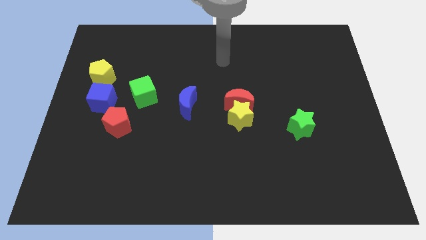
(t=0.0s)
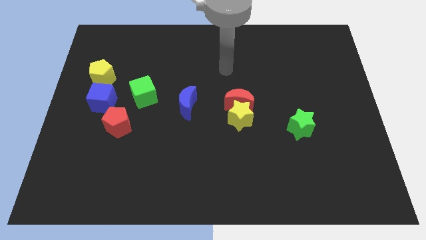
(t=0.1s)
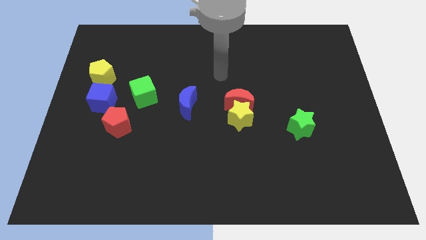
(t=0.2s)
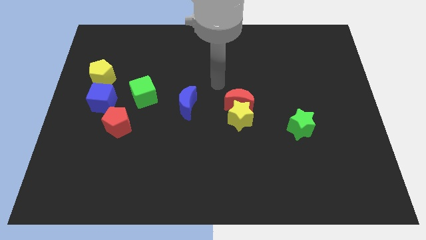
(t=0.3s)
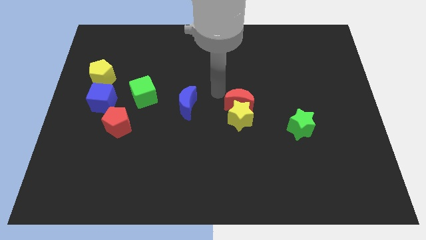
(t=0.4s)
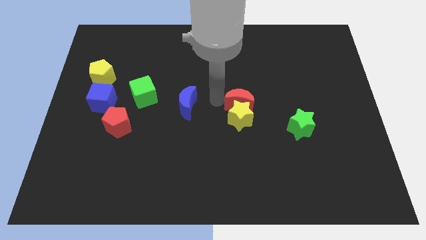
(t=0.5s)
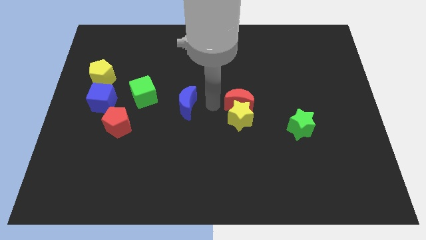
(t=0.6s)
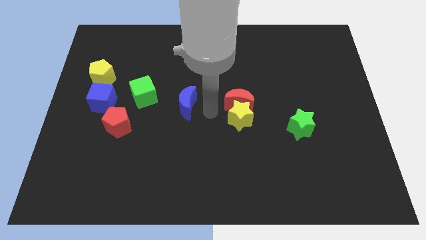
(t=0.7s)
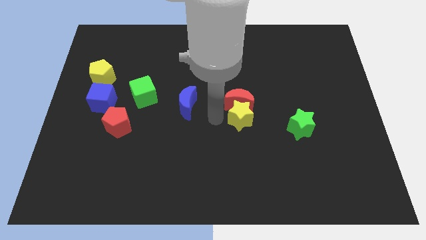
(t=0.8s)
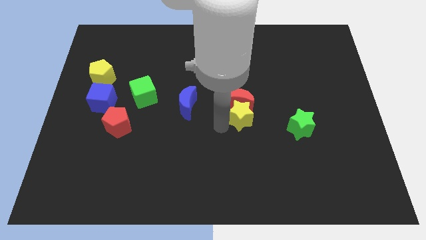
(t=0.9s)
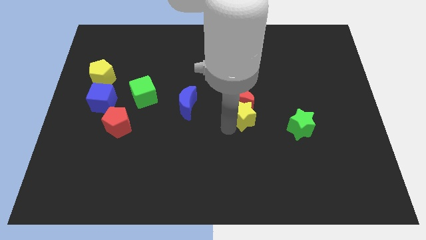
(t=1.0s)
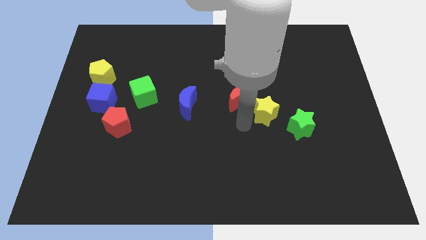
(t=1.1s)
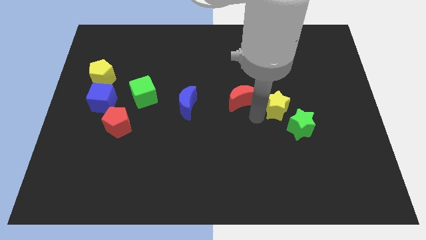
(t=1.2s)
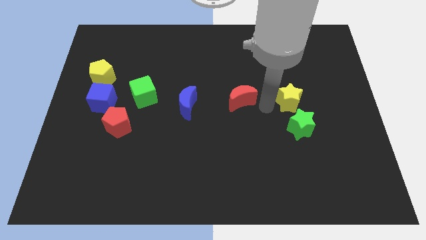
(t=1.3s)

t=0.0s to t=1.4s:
pull the red moon apart from the yellow star

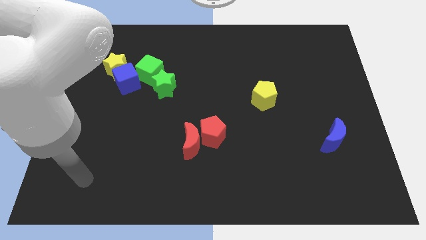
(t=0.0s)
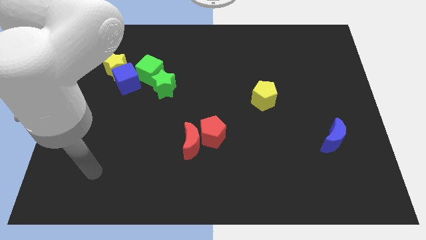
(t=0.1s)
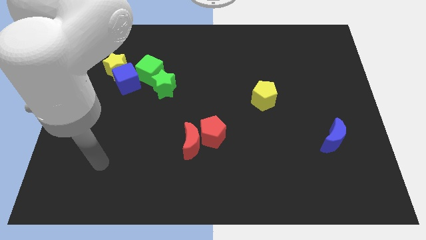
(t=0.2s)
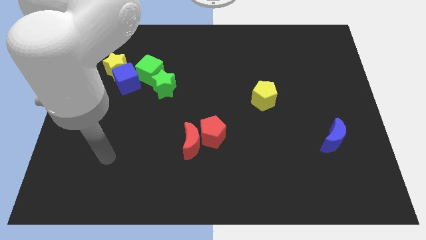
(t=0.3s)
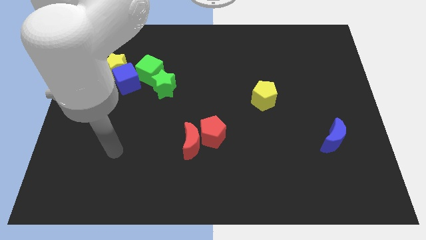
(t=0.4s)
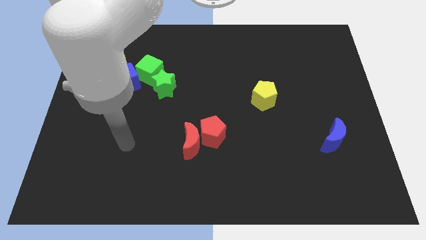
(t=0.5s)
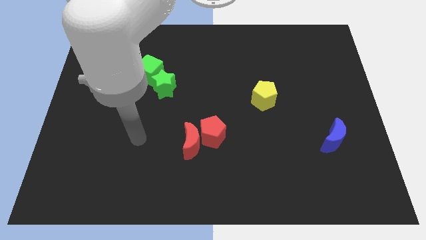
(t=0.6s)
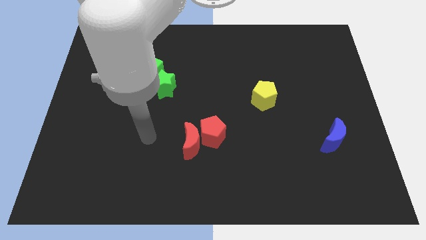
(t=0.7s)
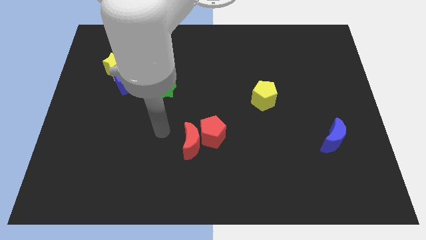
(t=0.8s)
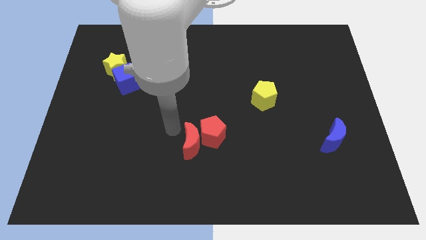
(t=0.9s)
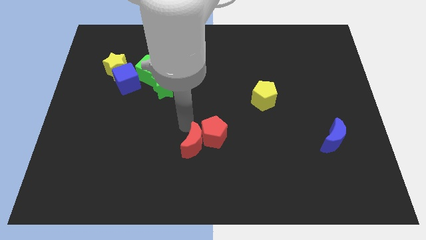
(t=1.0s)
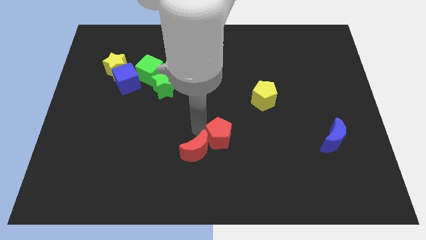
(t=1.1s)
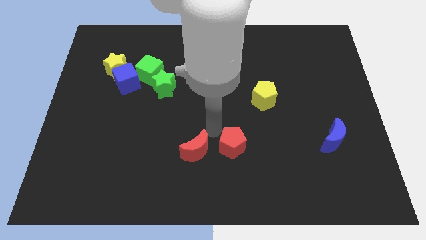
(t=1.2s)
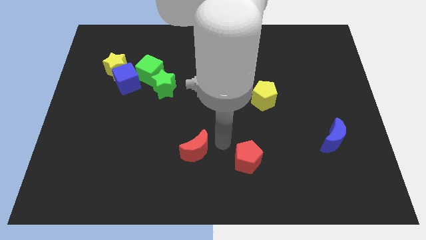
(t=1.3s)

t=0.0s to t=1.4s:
separate the red moon from the red pentagon

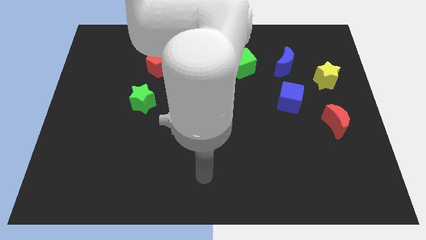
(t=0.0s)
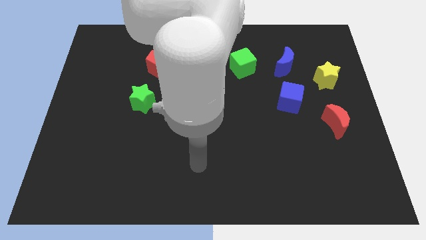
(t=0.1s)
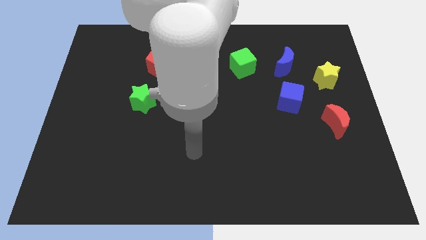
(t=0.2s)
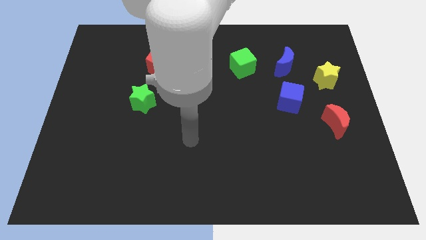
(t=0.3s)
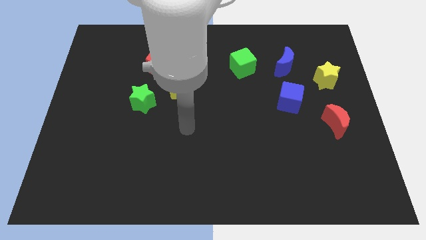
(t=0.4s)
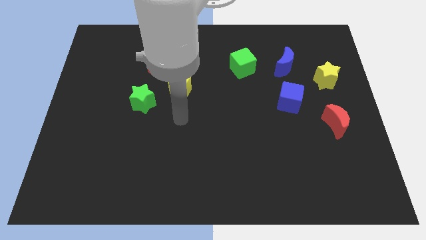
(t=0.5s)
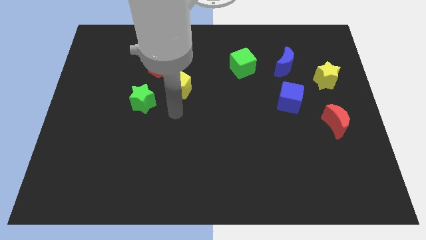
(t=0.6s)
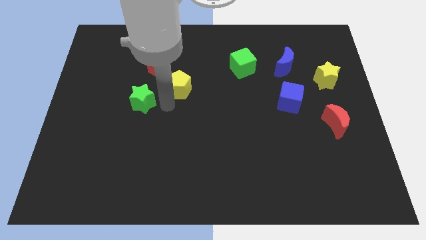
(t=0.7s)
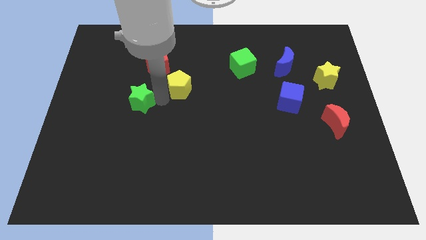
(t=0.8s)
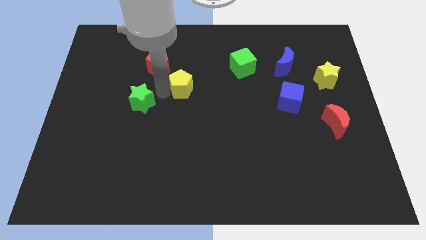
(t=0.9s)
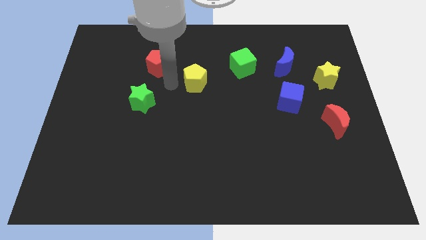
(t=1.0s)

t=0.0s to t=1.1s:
pull the red pentagon apart from the yellow pentagon

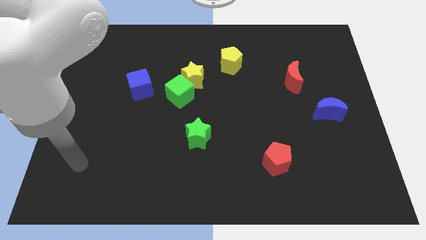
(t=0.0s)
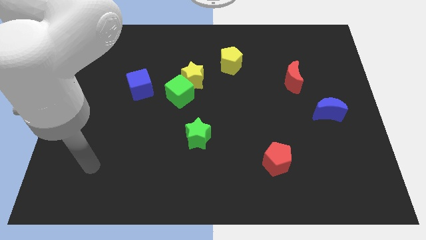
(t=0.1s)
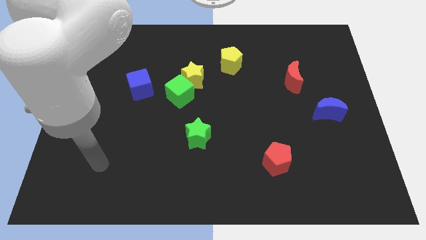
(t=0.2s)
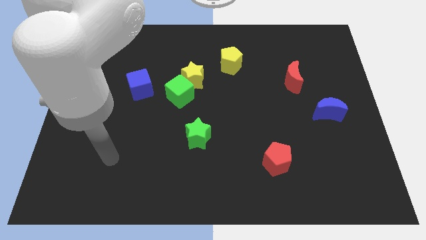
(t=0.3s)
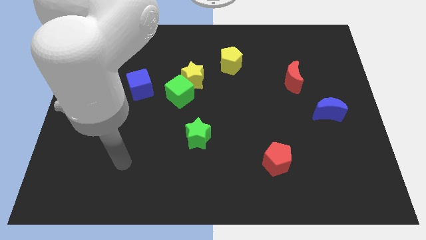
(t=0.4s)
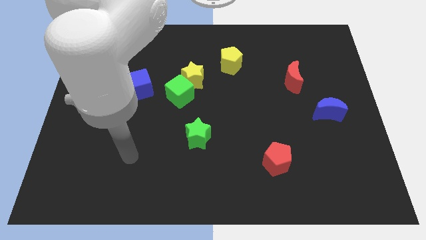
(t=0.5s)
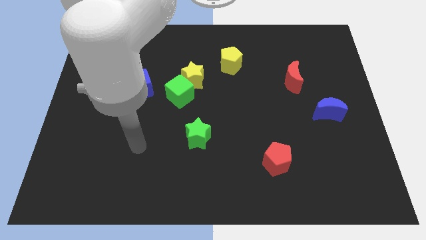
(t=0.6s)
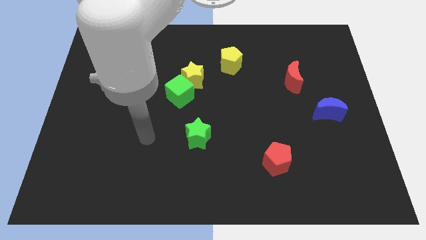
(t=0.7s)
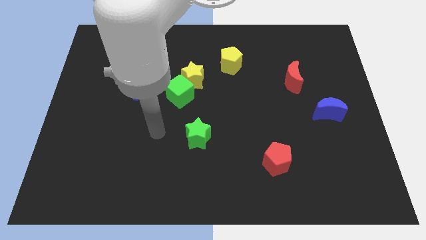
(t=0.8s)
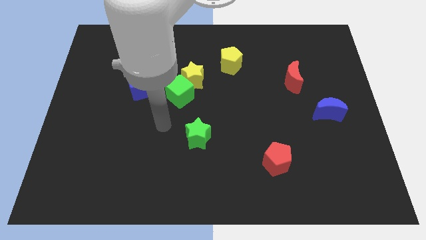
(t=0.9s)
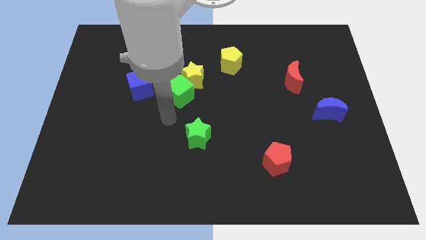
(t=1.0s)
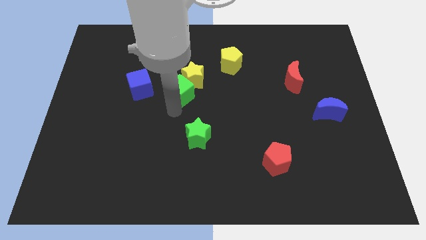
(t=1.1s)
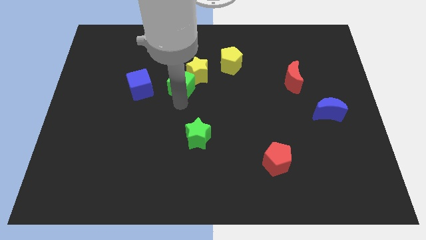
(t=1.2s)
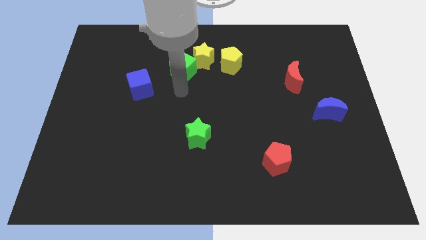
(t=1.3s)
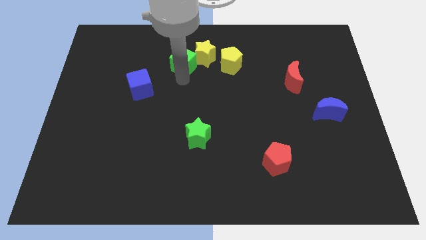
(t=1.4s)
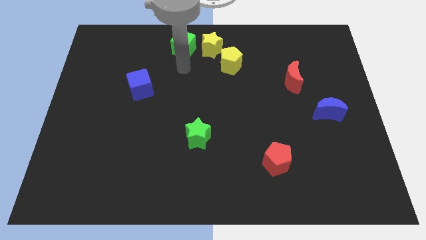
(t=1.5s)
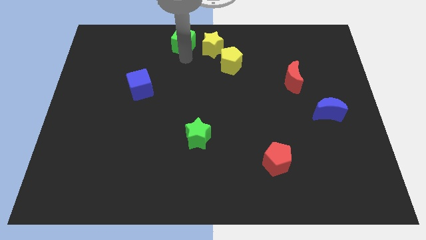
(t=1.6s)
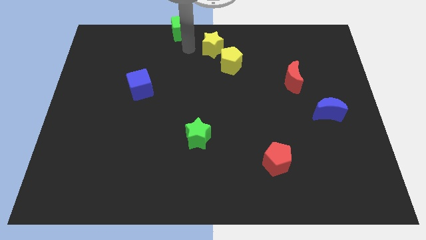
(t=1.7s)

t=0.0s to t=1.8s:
separate the yellow star from the green cube

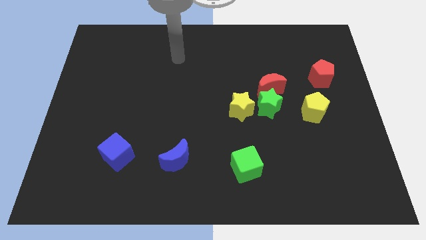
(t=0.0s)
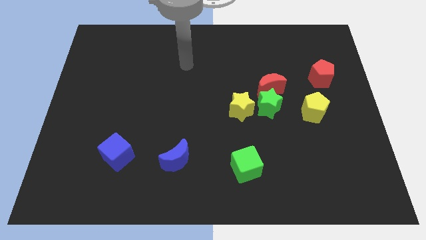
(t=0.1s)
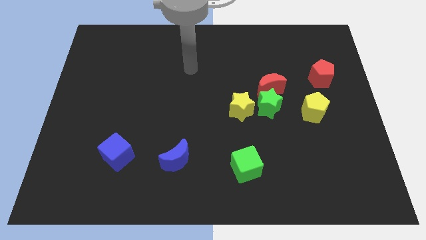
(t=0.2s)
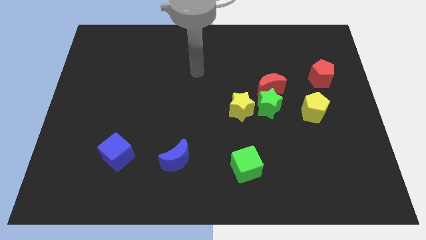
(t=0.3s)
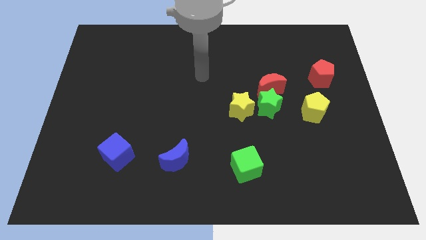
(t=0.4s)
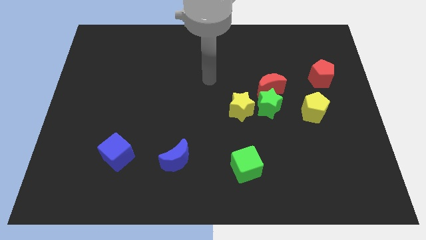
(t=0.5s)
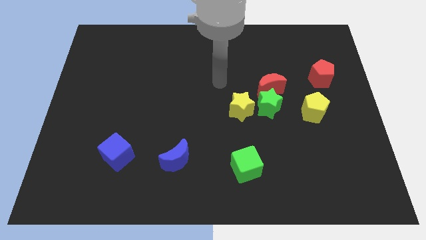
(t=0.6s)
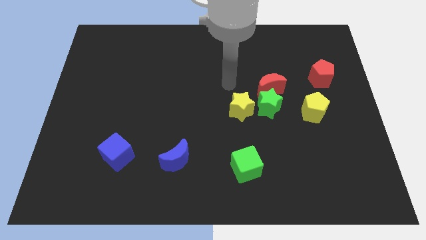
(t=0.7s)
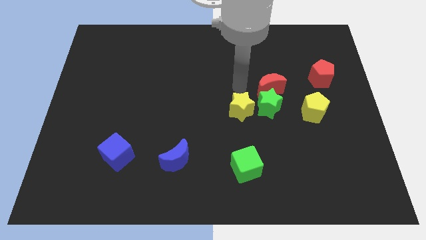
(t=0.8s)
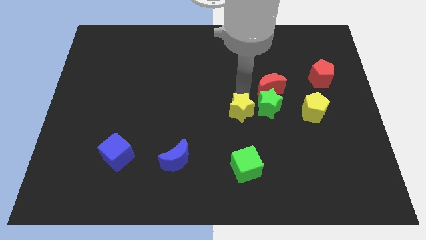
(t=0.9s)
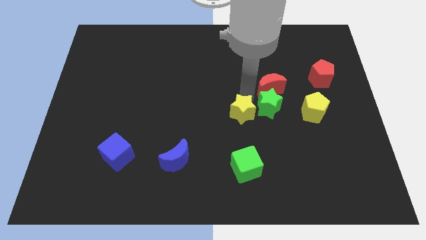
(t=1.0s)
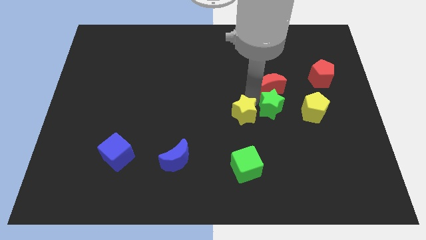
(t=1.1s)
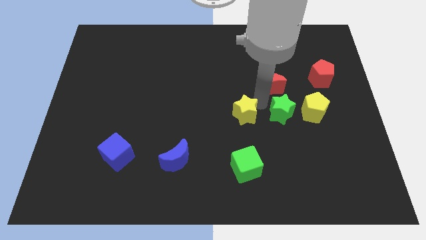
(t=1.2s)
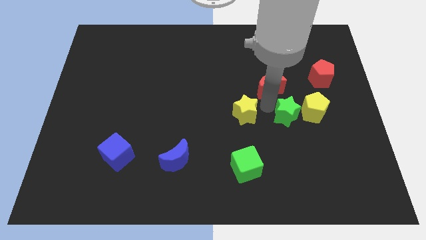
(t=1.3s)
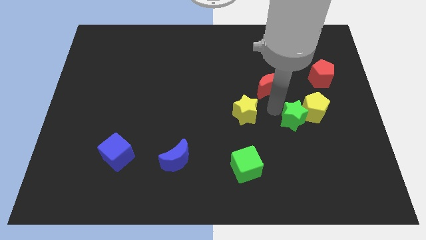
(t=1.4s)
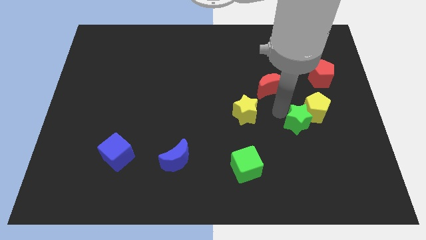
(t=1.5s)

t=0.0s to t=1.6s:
move the green star away from the red moon and yellow star

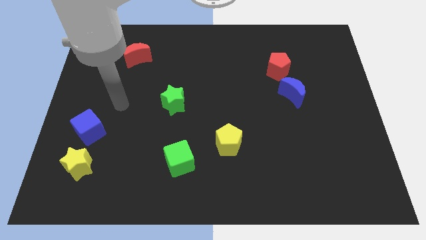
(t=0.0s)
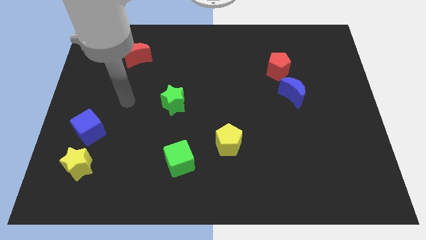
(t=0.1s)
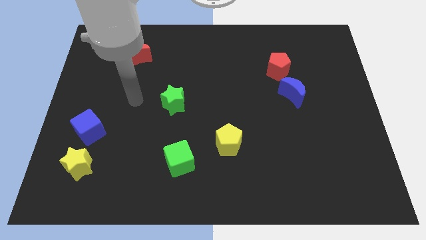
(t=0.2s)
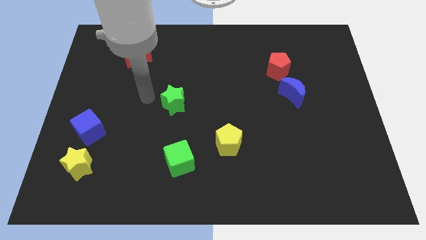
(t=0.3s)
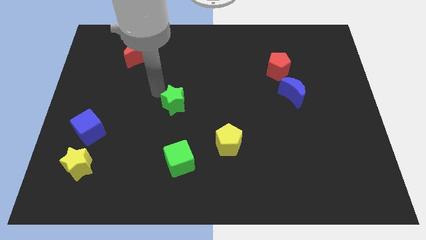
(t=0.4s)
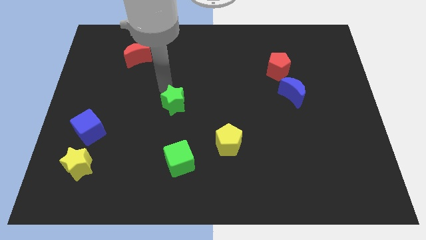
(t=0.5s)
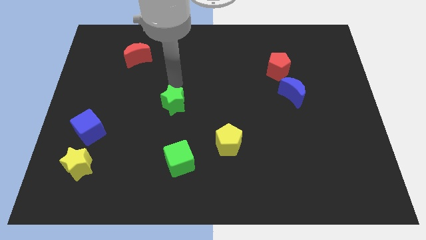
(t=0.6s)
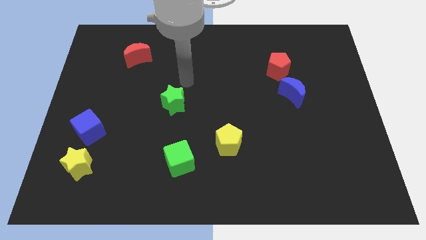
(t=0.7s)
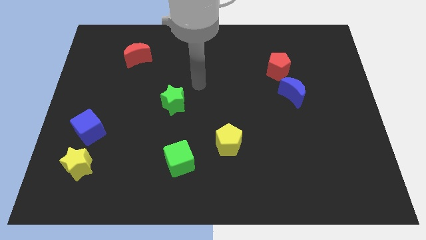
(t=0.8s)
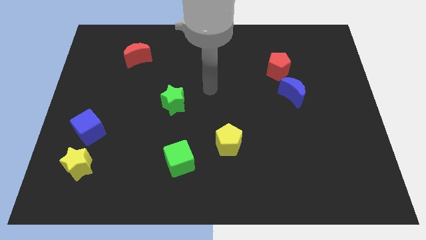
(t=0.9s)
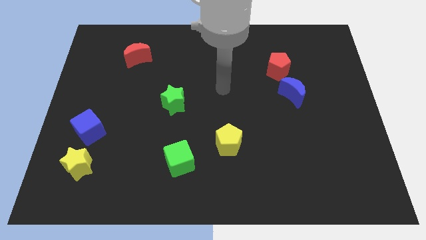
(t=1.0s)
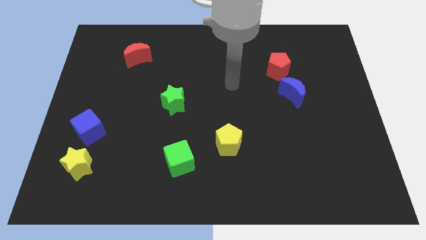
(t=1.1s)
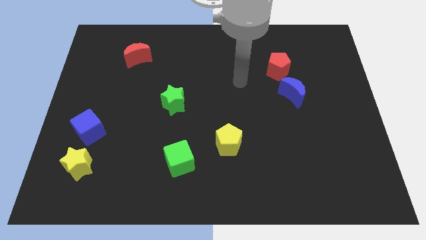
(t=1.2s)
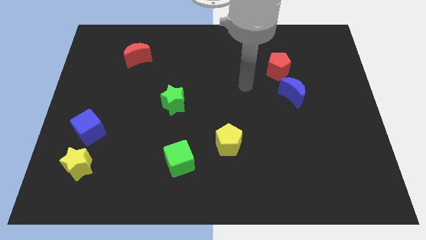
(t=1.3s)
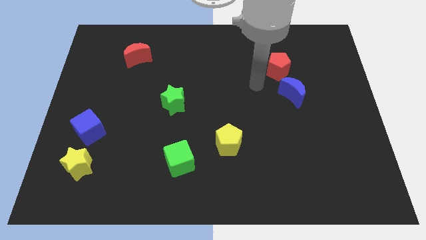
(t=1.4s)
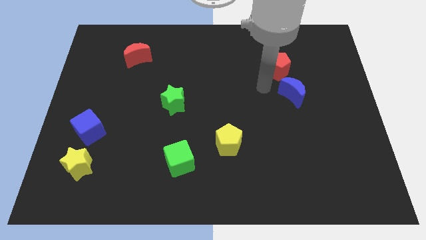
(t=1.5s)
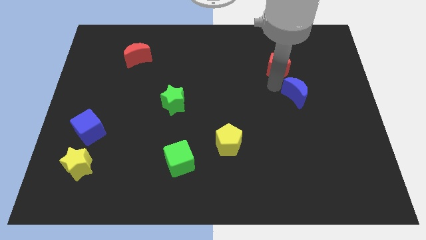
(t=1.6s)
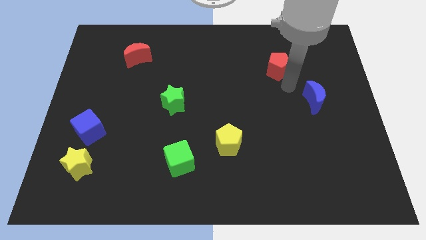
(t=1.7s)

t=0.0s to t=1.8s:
pull the red pentagon apart from the blue moon
